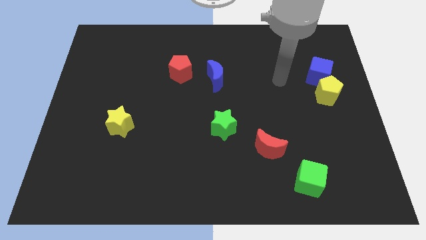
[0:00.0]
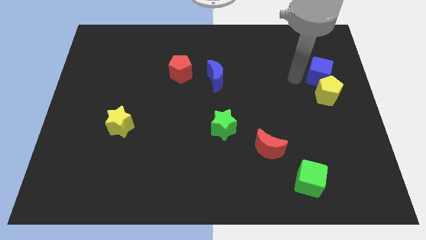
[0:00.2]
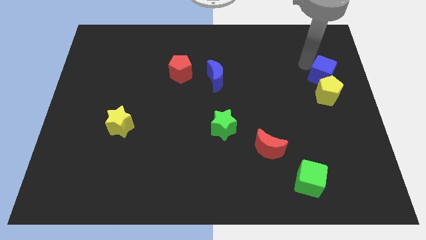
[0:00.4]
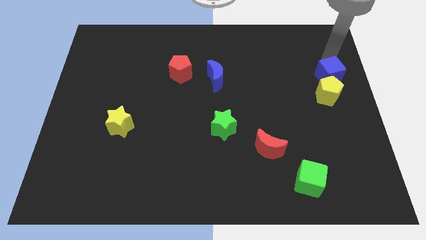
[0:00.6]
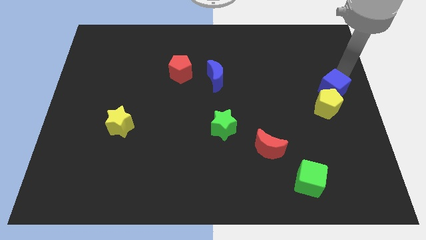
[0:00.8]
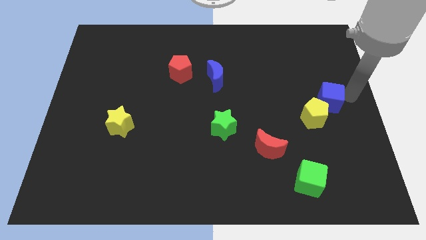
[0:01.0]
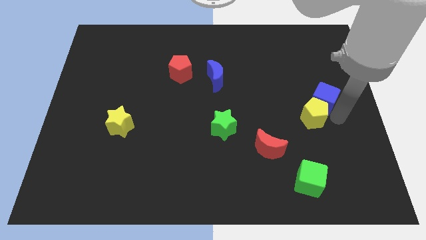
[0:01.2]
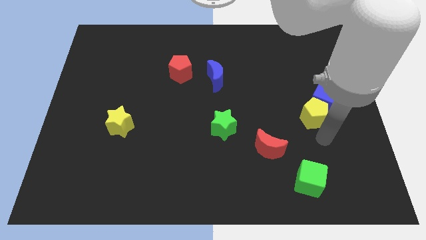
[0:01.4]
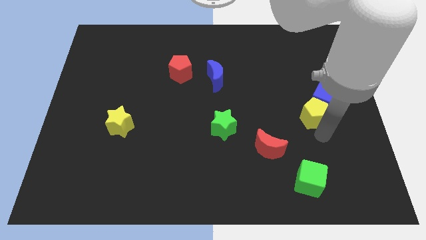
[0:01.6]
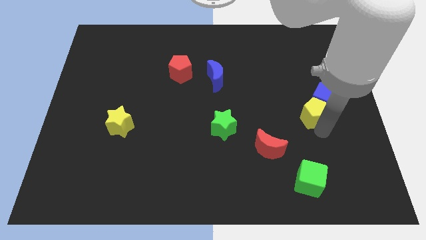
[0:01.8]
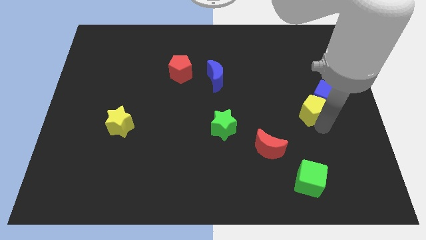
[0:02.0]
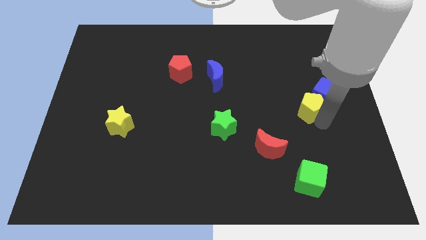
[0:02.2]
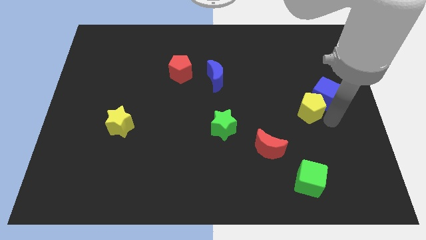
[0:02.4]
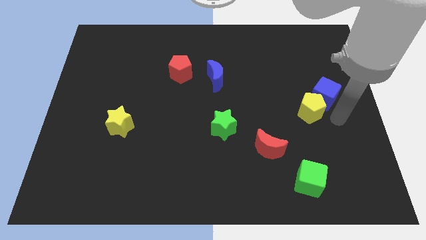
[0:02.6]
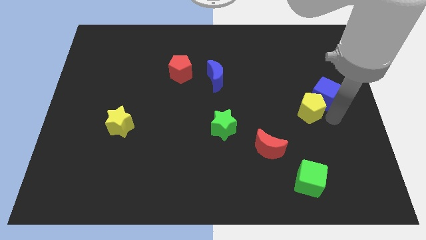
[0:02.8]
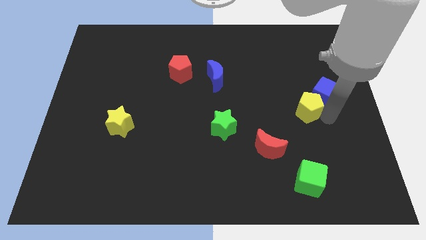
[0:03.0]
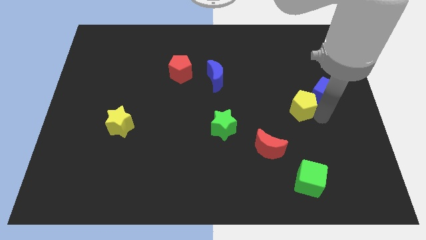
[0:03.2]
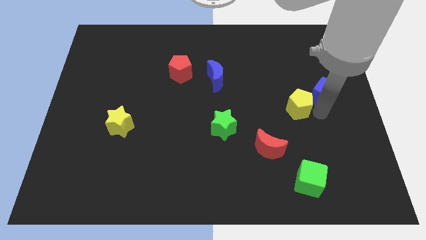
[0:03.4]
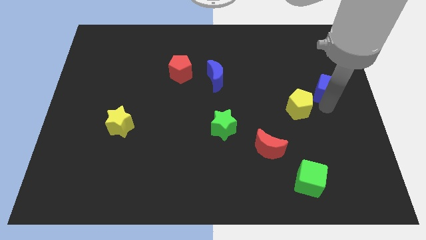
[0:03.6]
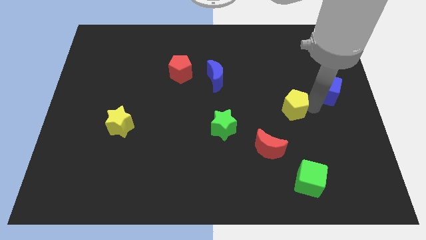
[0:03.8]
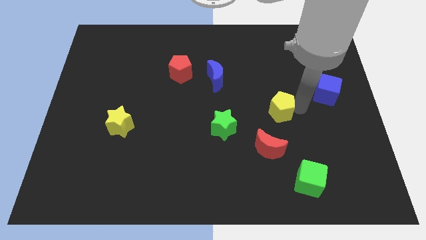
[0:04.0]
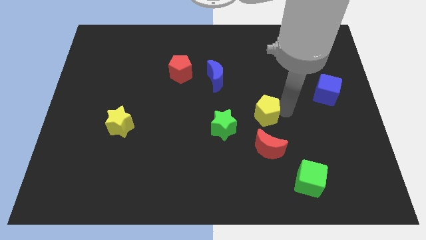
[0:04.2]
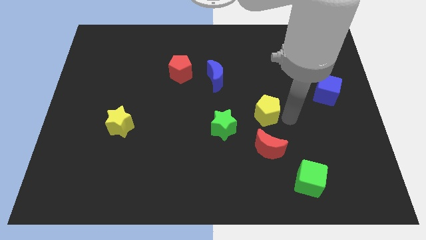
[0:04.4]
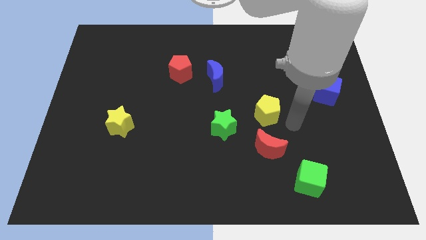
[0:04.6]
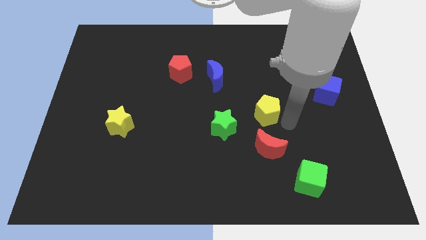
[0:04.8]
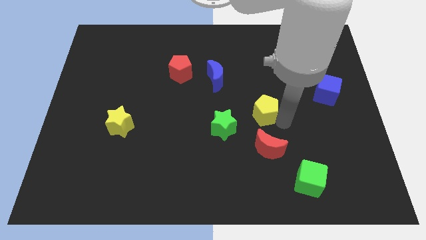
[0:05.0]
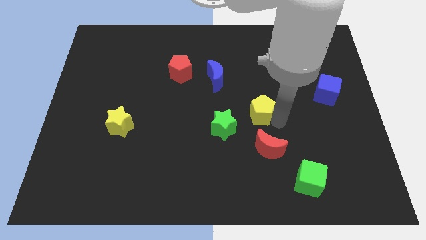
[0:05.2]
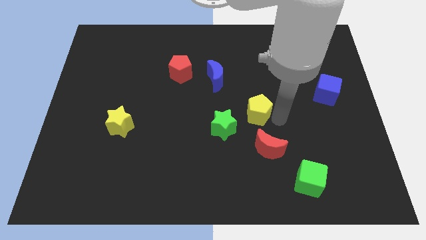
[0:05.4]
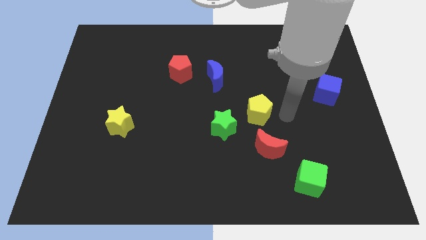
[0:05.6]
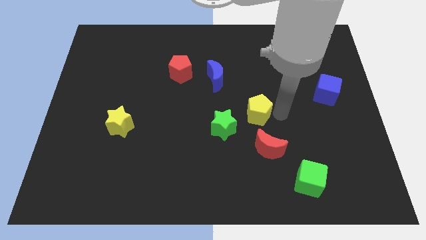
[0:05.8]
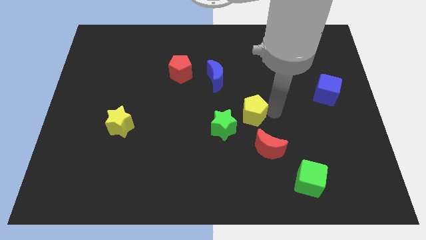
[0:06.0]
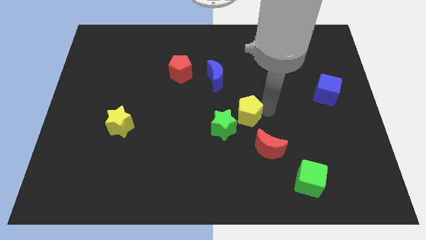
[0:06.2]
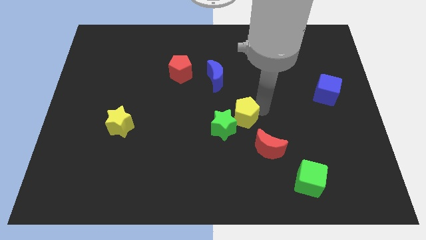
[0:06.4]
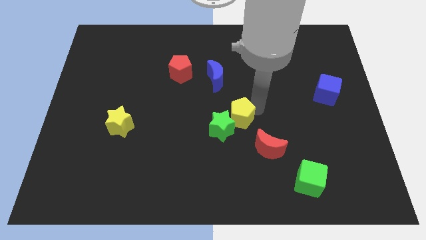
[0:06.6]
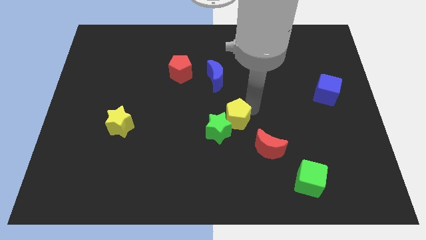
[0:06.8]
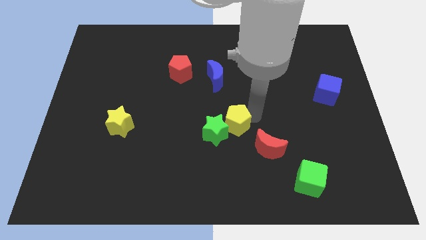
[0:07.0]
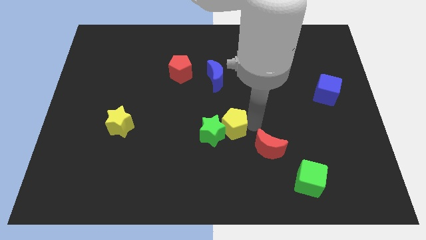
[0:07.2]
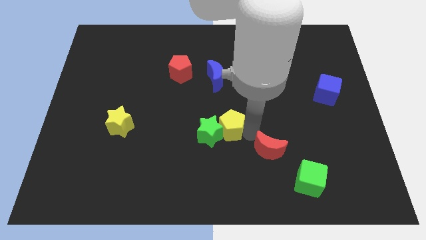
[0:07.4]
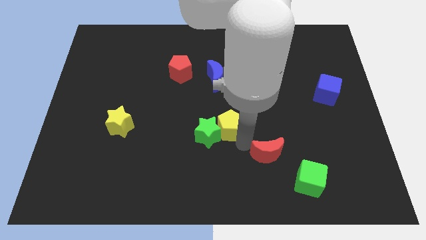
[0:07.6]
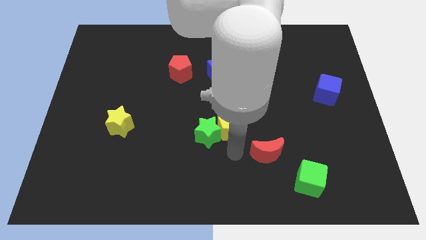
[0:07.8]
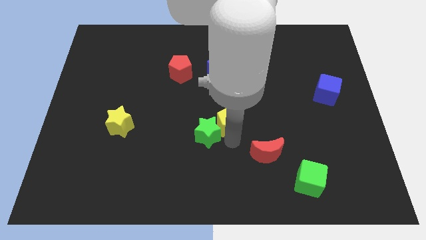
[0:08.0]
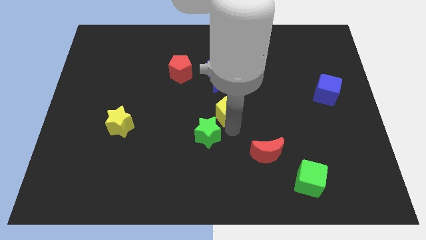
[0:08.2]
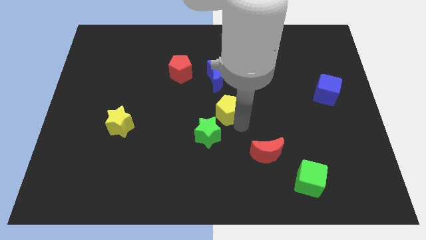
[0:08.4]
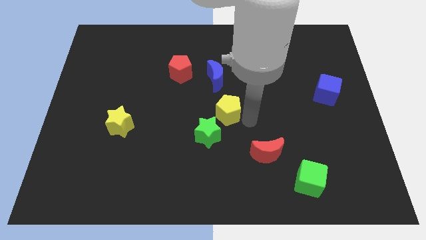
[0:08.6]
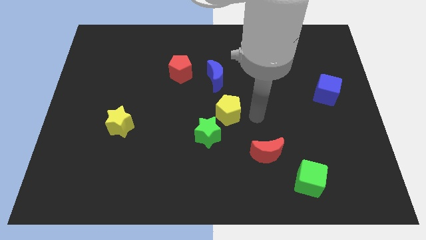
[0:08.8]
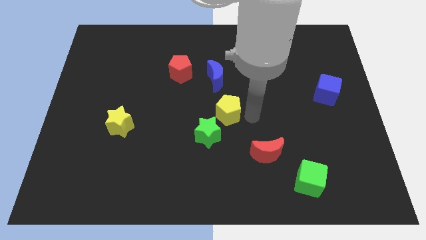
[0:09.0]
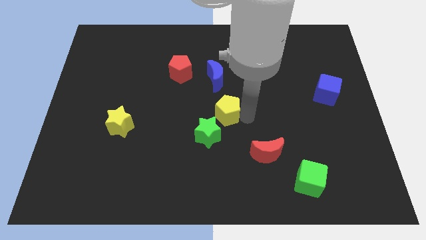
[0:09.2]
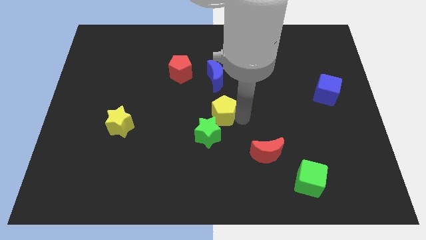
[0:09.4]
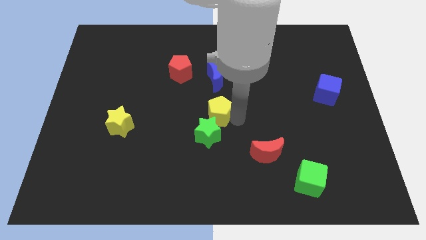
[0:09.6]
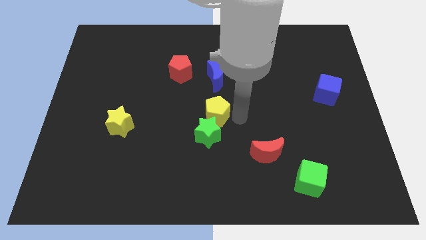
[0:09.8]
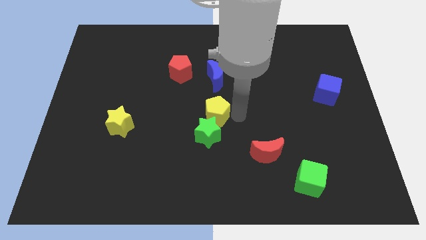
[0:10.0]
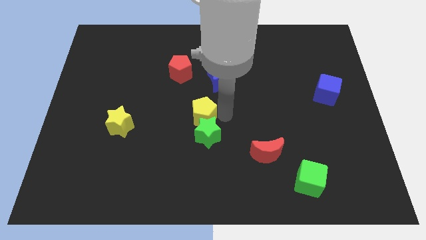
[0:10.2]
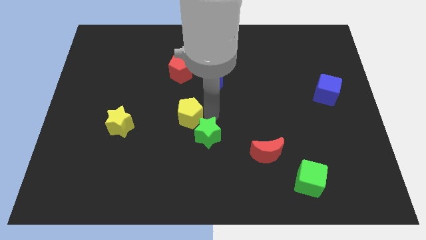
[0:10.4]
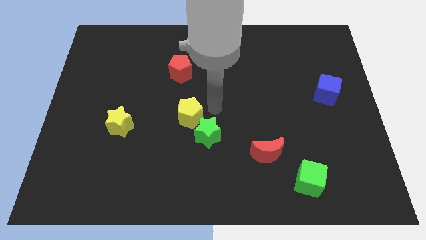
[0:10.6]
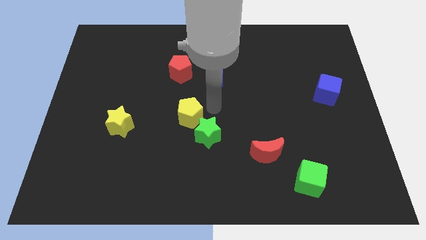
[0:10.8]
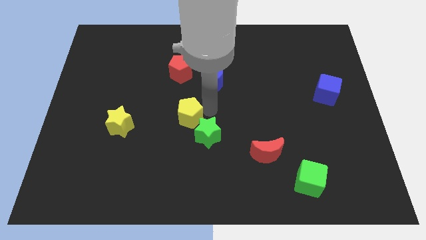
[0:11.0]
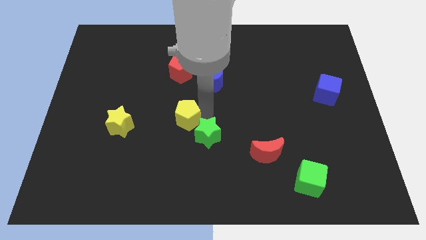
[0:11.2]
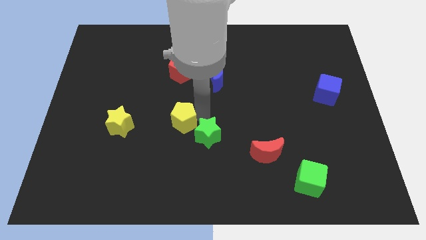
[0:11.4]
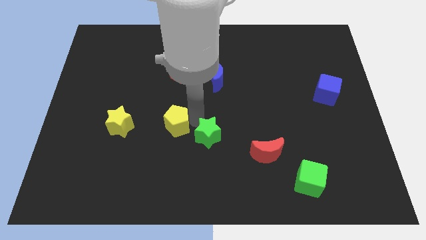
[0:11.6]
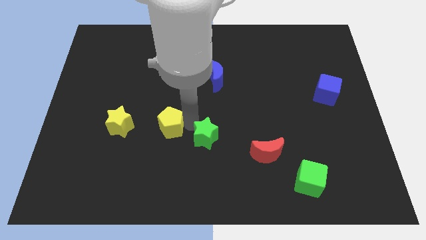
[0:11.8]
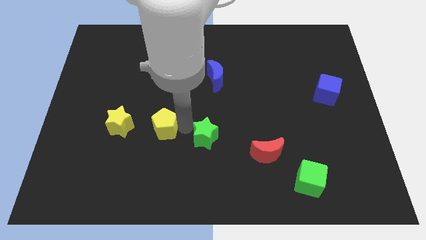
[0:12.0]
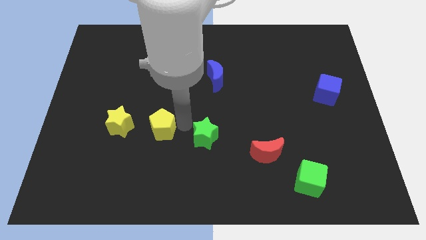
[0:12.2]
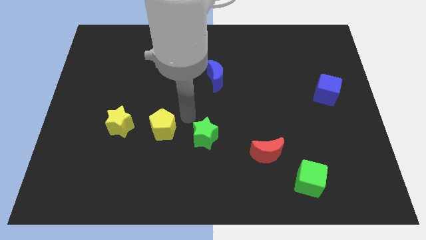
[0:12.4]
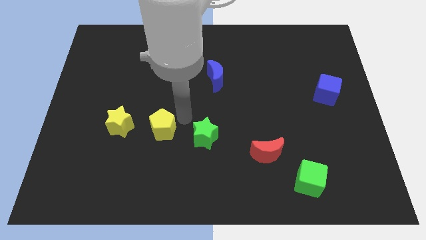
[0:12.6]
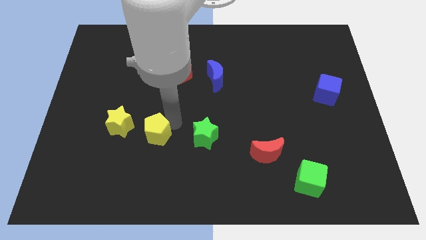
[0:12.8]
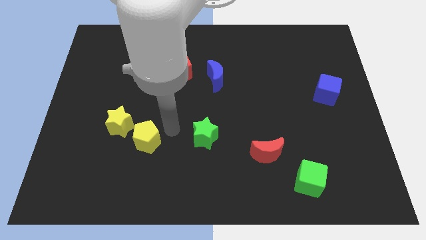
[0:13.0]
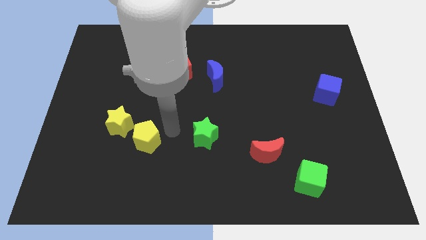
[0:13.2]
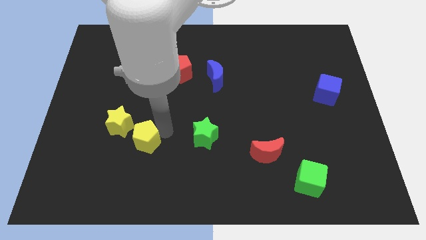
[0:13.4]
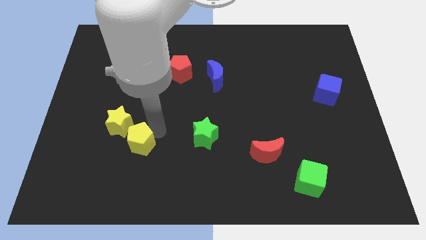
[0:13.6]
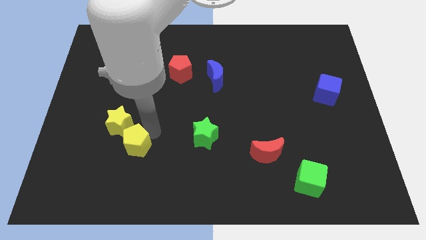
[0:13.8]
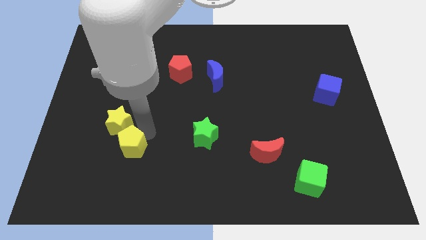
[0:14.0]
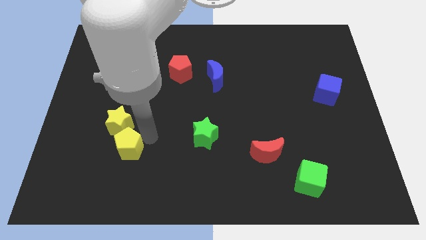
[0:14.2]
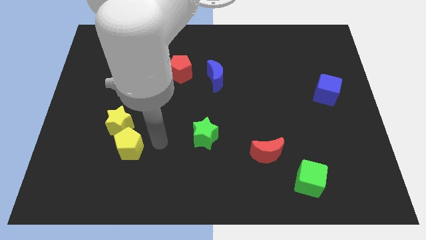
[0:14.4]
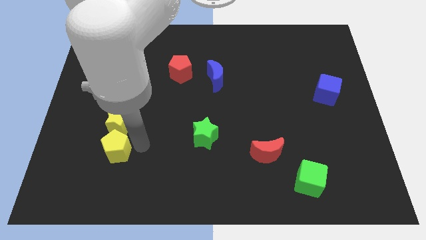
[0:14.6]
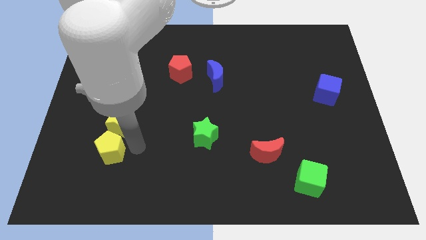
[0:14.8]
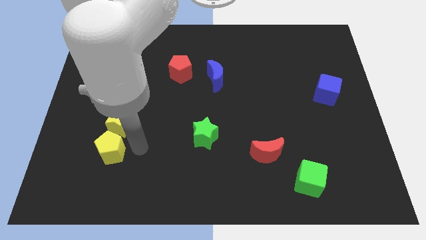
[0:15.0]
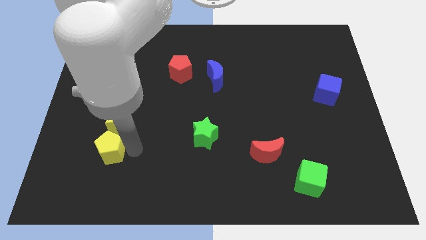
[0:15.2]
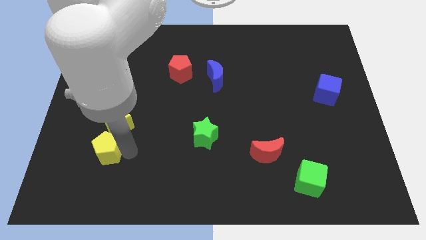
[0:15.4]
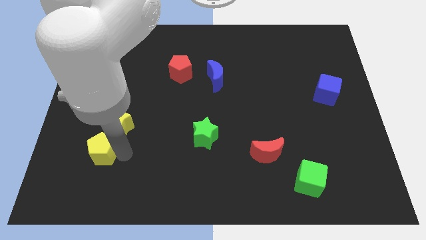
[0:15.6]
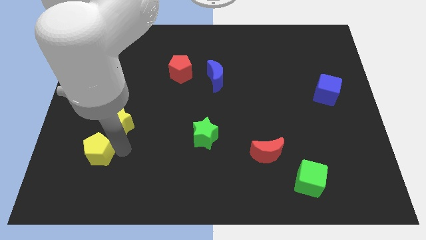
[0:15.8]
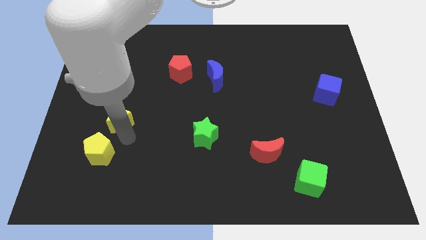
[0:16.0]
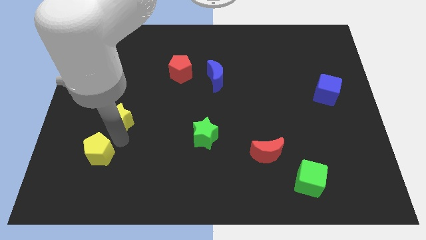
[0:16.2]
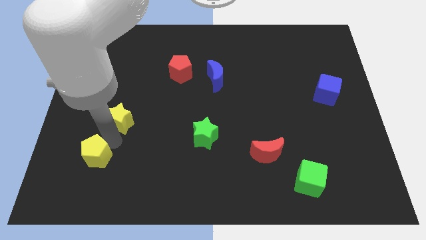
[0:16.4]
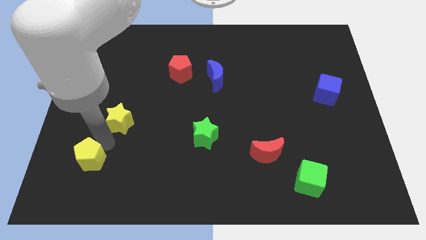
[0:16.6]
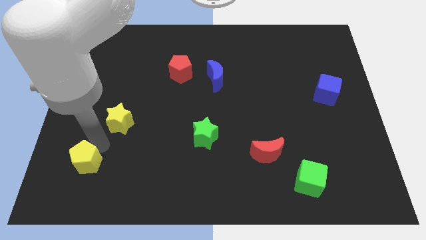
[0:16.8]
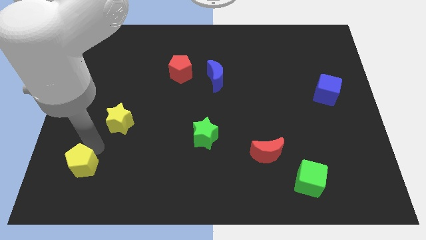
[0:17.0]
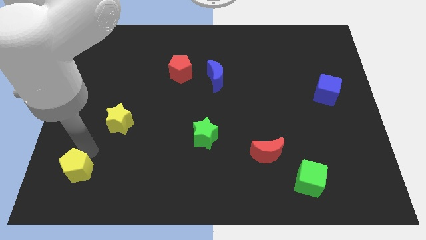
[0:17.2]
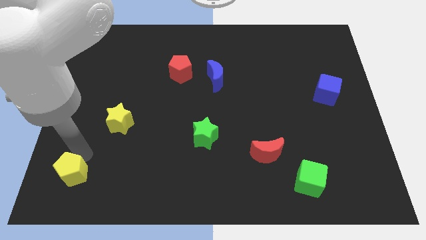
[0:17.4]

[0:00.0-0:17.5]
move the yellow pentagon to the bottom left corner
